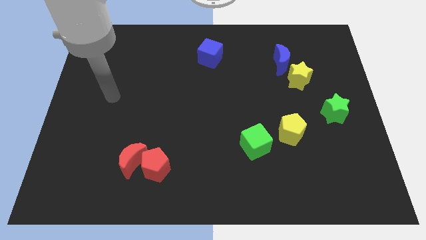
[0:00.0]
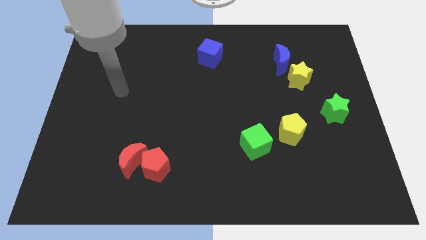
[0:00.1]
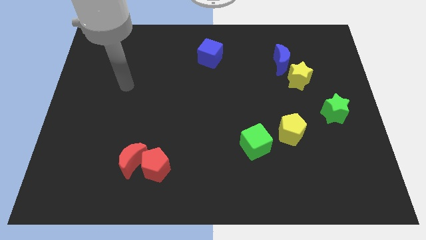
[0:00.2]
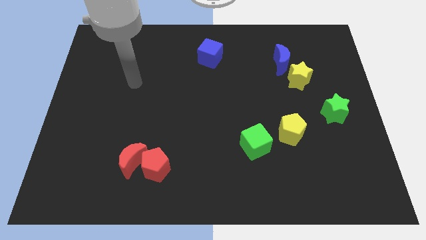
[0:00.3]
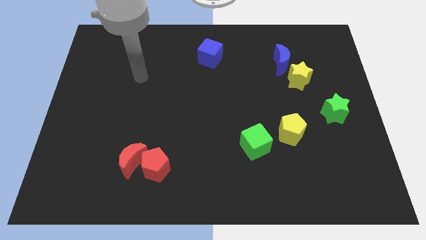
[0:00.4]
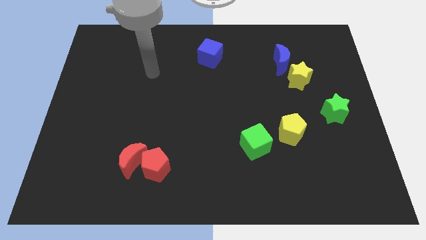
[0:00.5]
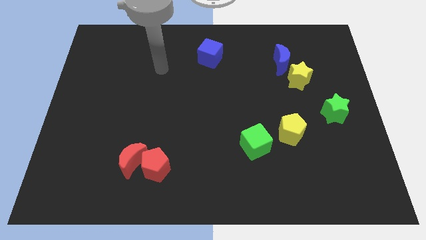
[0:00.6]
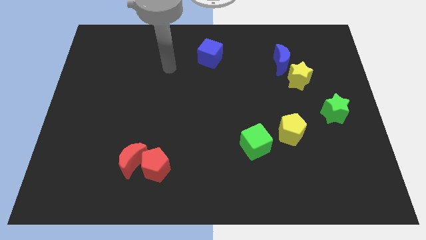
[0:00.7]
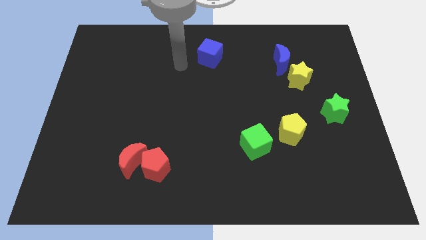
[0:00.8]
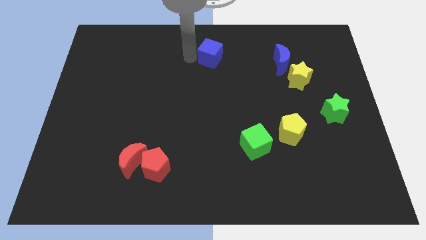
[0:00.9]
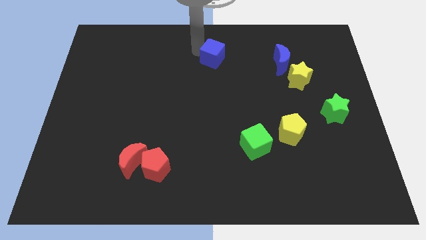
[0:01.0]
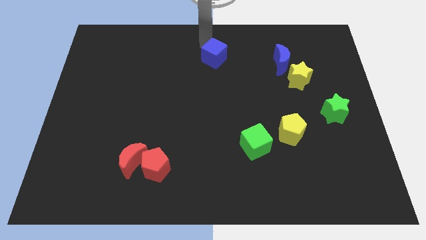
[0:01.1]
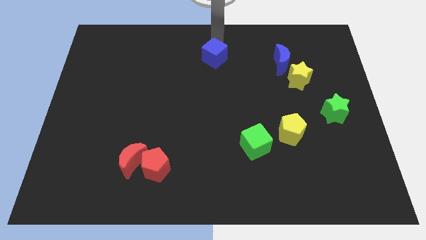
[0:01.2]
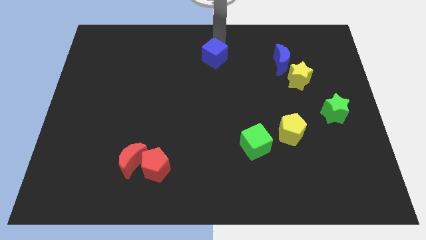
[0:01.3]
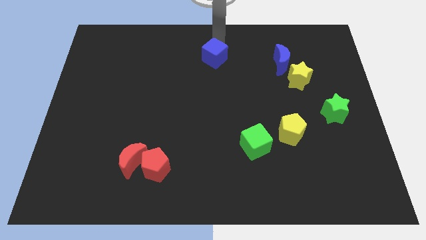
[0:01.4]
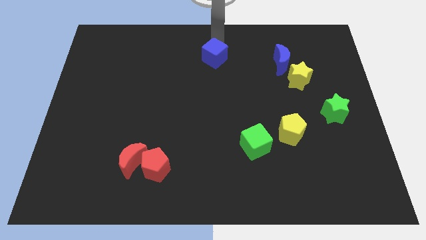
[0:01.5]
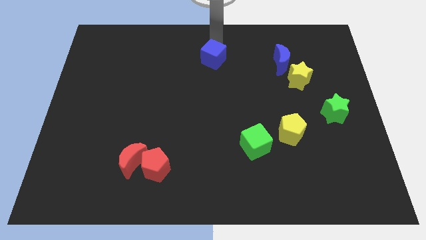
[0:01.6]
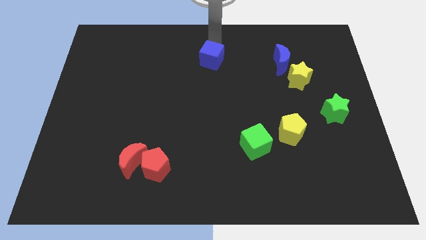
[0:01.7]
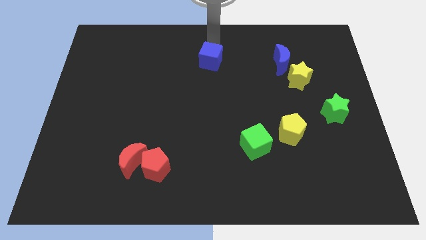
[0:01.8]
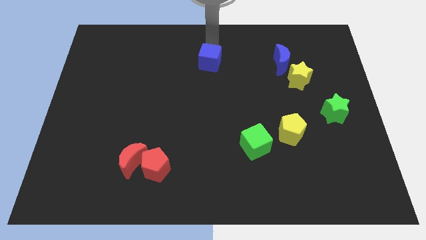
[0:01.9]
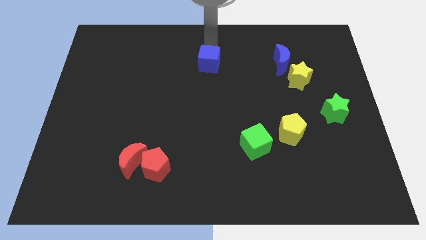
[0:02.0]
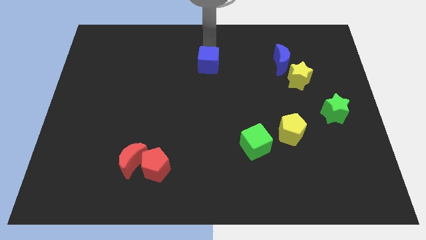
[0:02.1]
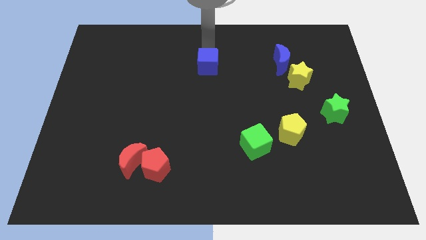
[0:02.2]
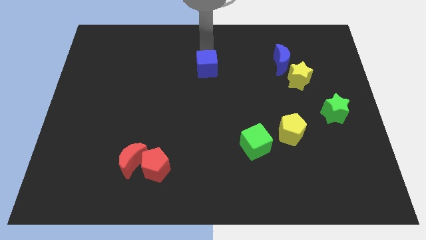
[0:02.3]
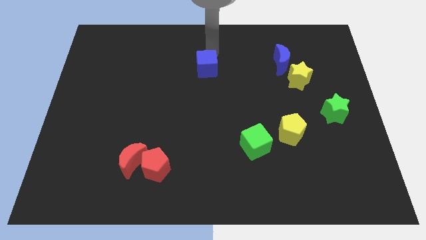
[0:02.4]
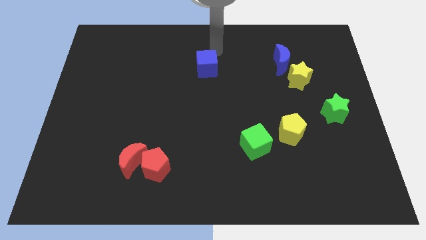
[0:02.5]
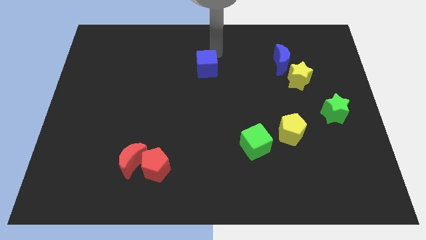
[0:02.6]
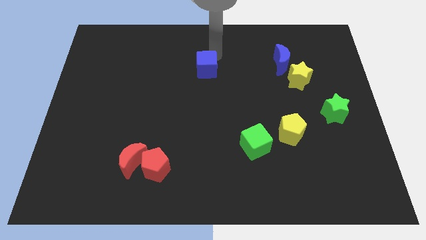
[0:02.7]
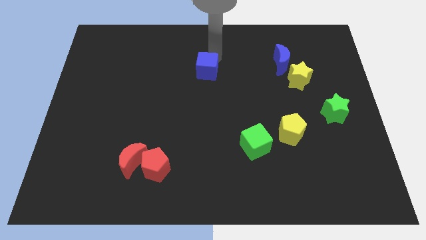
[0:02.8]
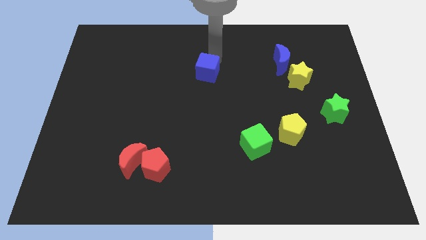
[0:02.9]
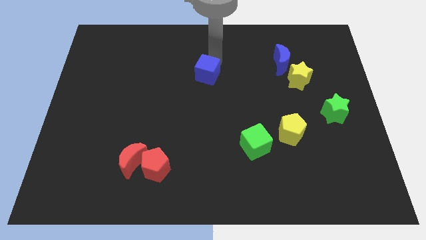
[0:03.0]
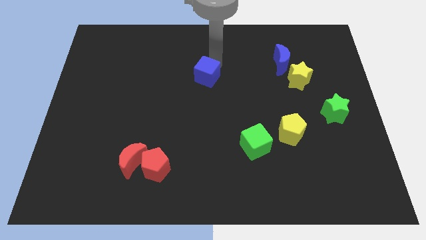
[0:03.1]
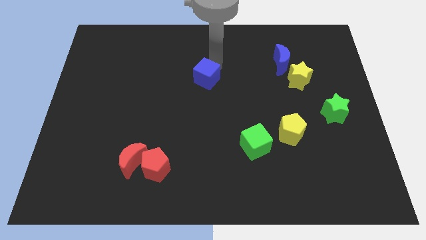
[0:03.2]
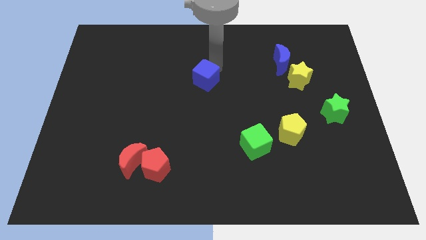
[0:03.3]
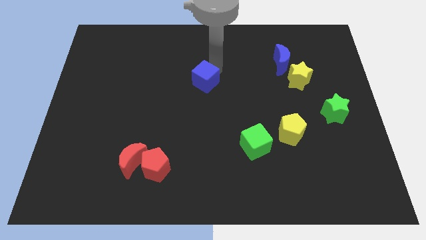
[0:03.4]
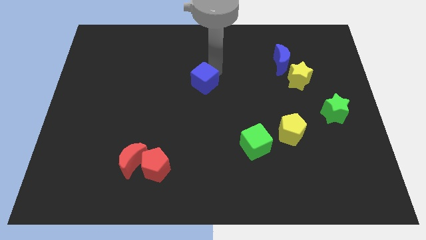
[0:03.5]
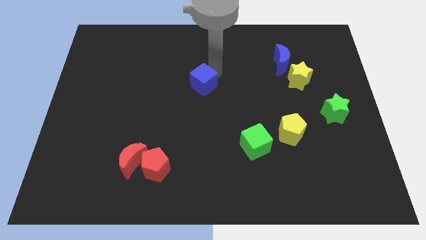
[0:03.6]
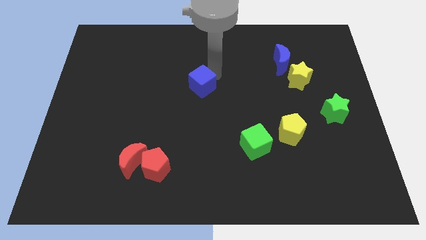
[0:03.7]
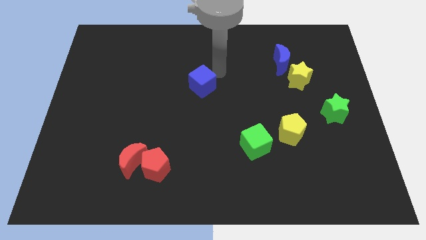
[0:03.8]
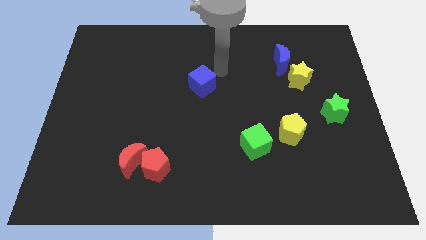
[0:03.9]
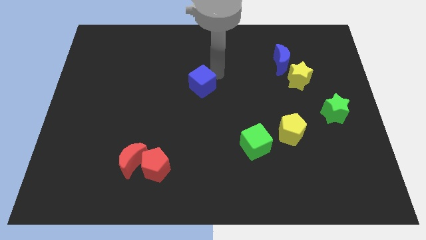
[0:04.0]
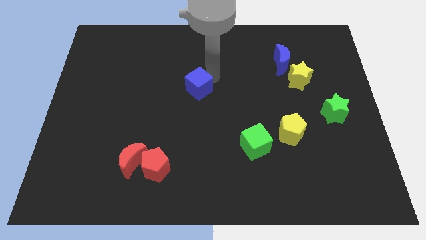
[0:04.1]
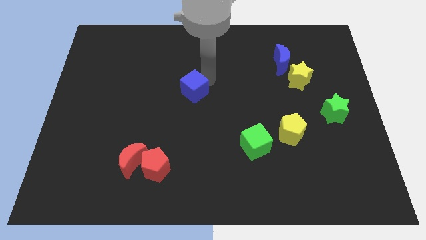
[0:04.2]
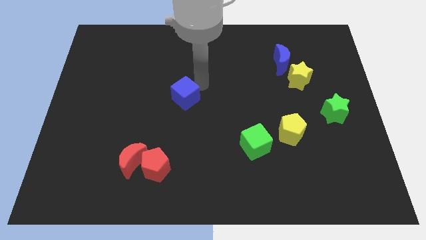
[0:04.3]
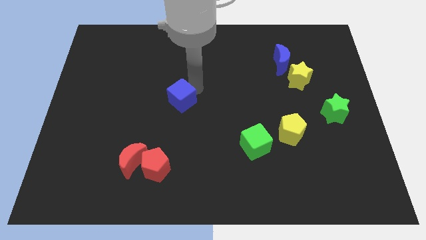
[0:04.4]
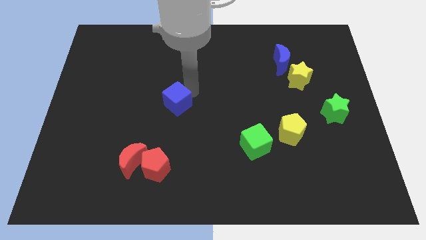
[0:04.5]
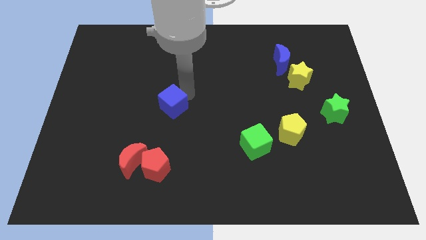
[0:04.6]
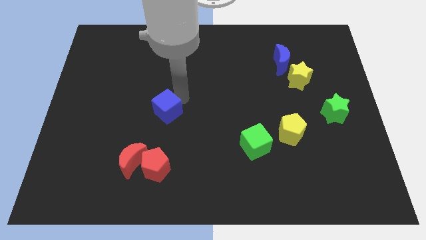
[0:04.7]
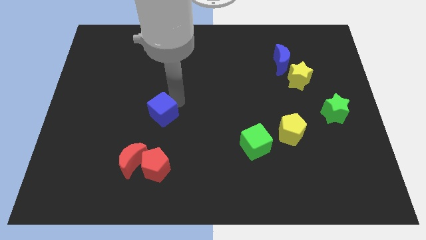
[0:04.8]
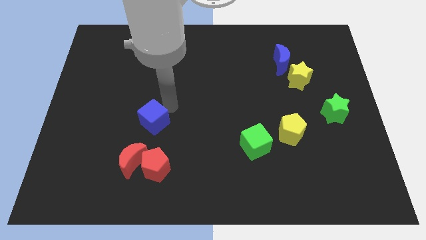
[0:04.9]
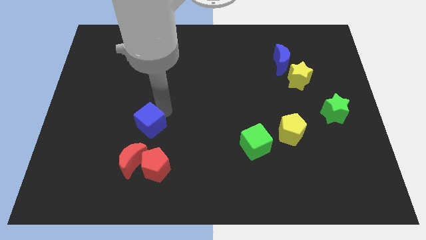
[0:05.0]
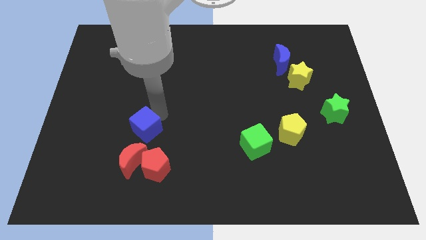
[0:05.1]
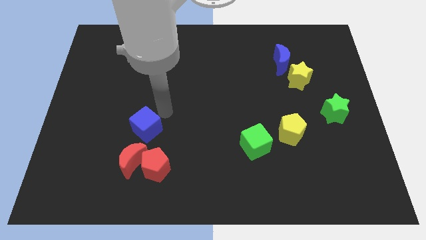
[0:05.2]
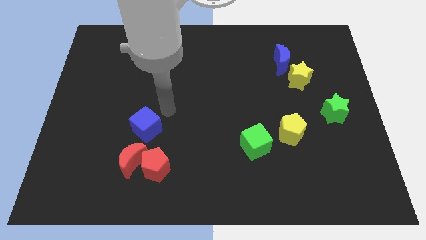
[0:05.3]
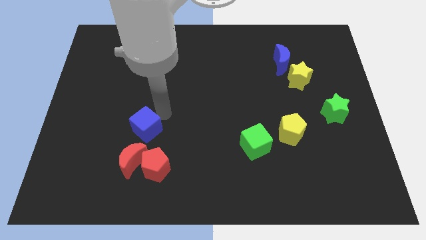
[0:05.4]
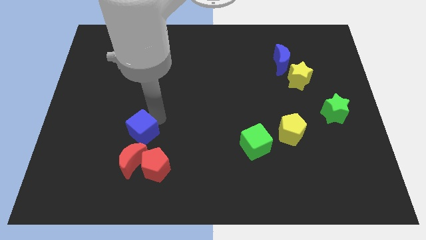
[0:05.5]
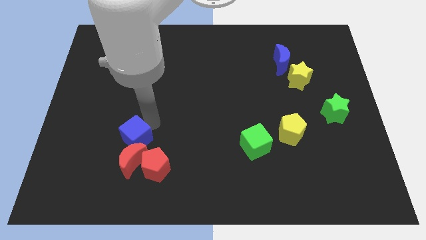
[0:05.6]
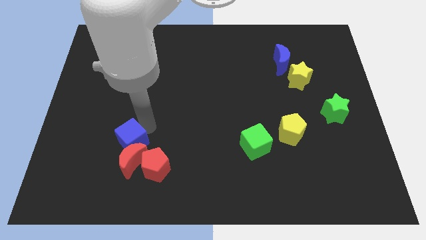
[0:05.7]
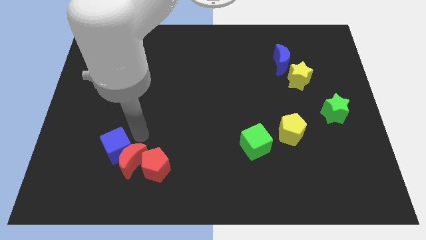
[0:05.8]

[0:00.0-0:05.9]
slide the blue cube left of the red moon

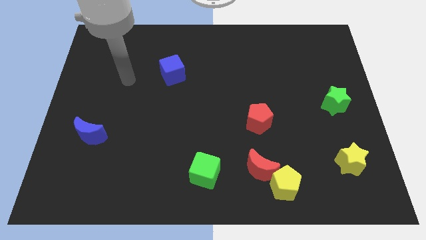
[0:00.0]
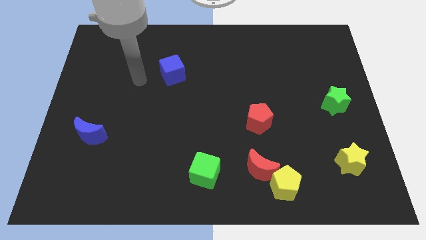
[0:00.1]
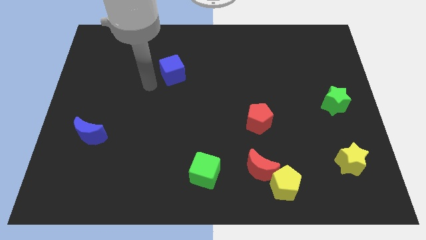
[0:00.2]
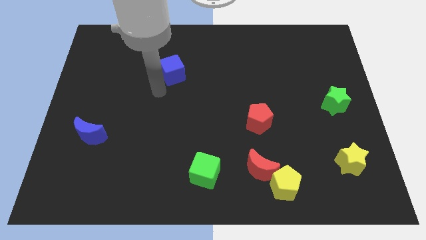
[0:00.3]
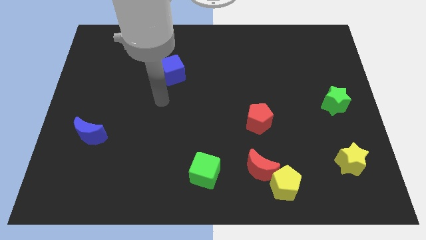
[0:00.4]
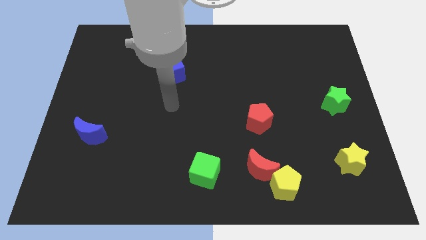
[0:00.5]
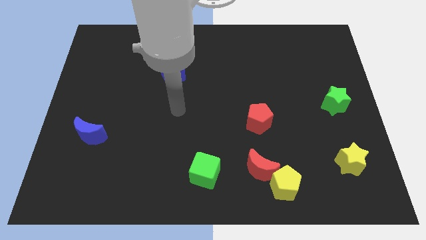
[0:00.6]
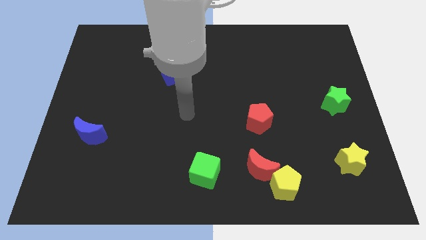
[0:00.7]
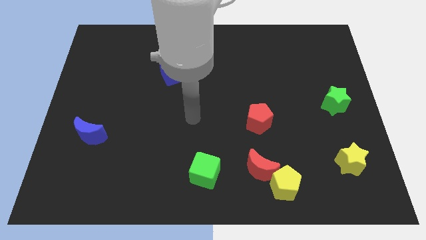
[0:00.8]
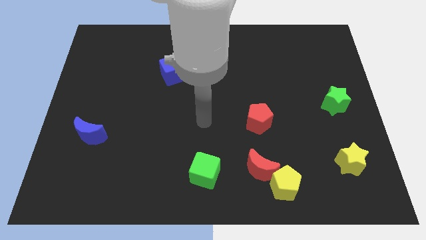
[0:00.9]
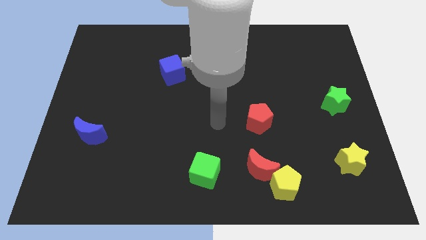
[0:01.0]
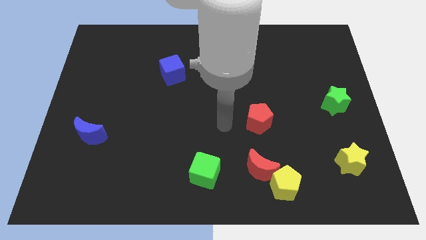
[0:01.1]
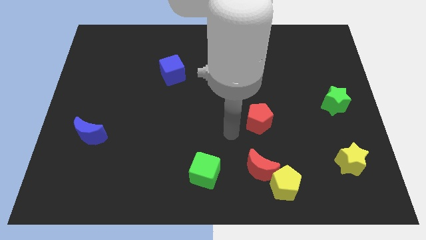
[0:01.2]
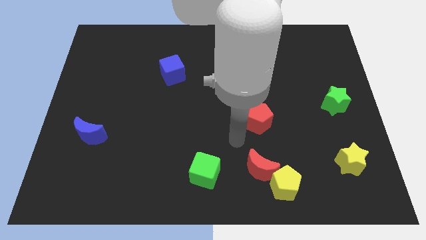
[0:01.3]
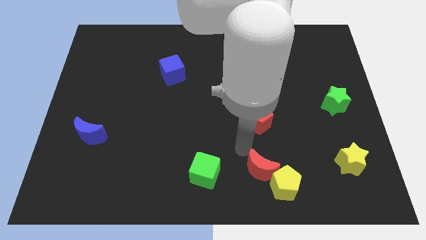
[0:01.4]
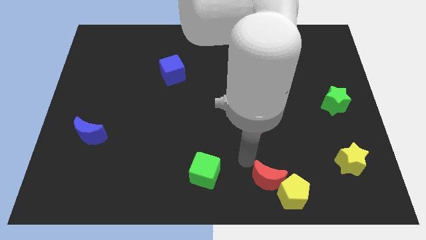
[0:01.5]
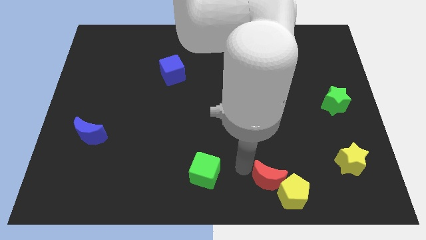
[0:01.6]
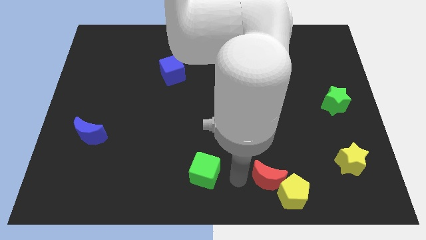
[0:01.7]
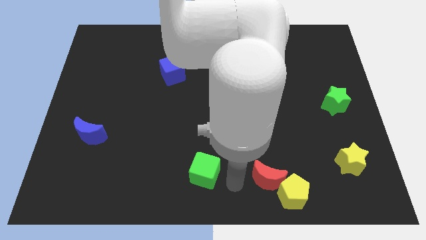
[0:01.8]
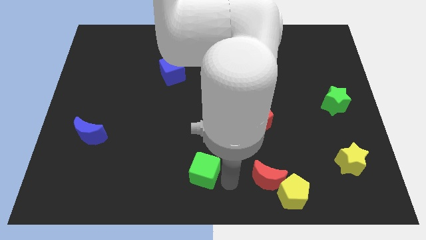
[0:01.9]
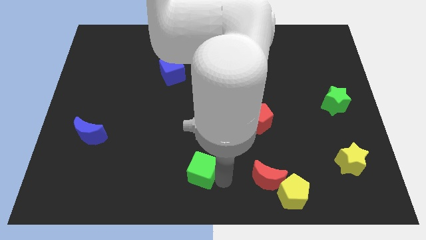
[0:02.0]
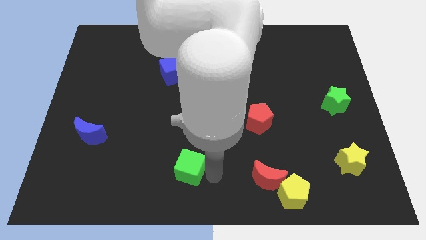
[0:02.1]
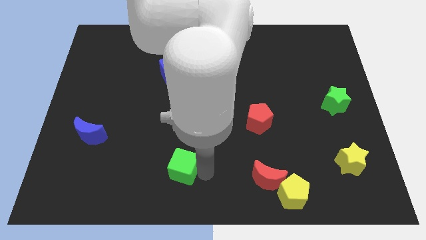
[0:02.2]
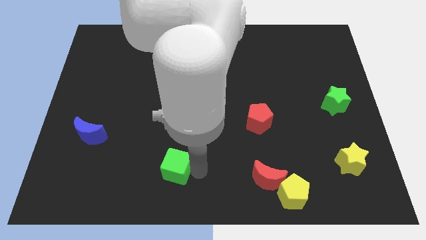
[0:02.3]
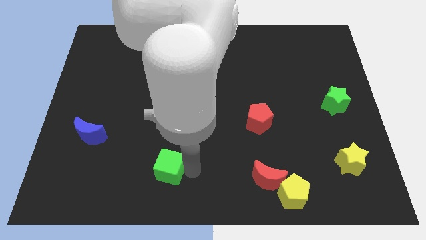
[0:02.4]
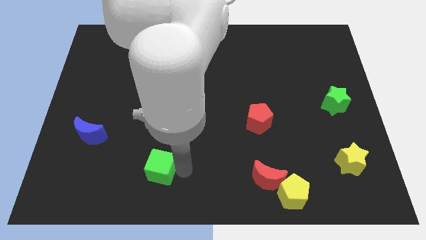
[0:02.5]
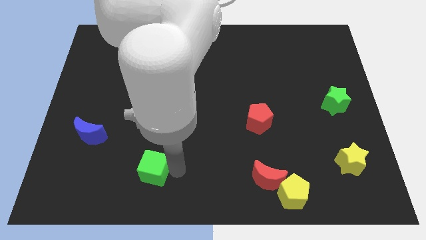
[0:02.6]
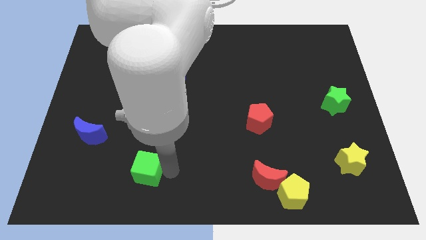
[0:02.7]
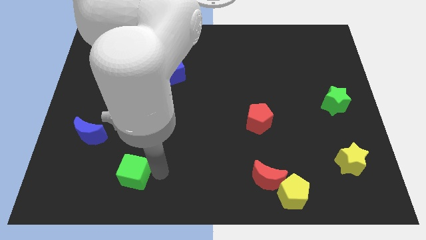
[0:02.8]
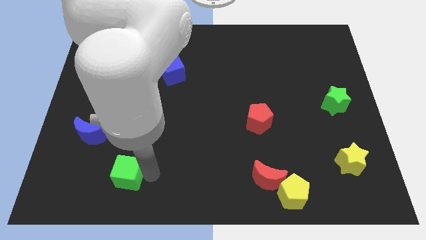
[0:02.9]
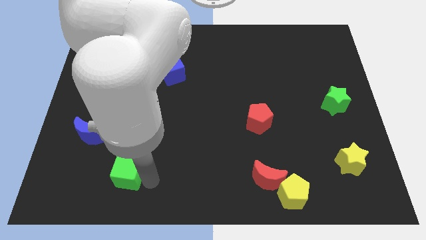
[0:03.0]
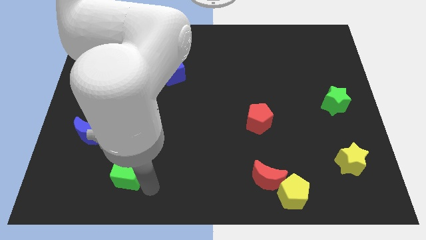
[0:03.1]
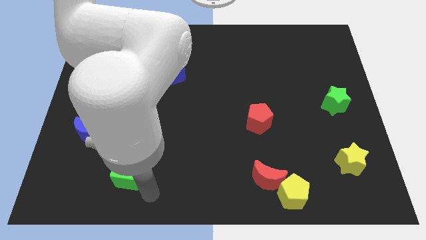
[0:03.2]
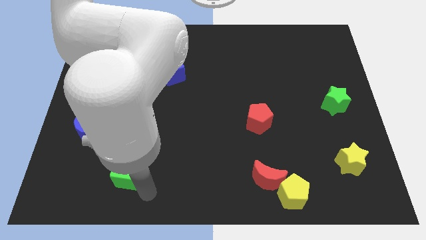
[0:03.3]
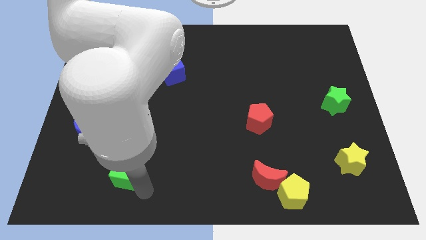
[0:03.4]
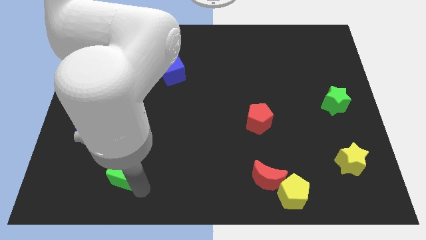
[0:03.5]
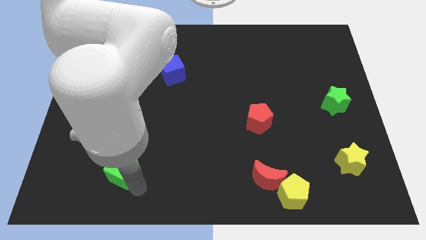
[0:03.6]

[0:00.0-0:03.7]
push the green cube to the bottom right of the blue moon
